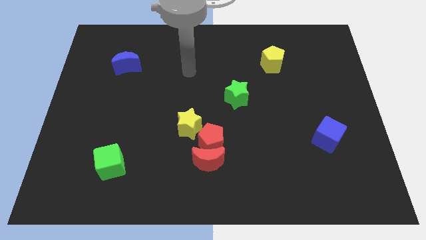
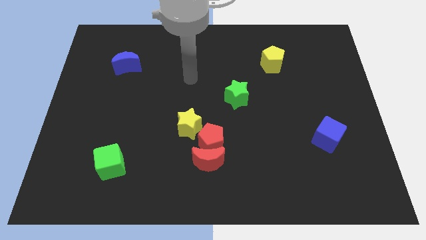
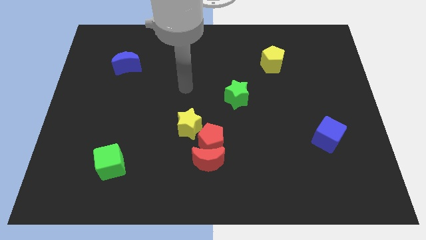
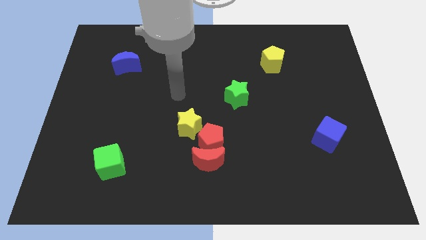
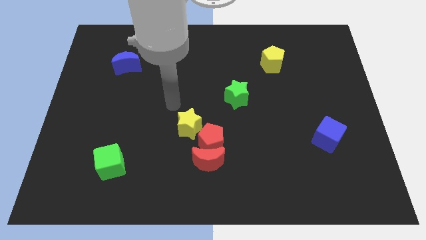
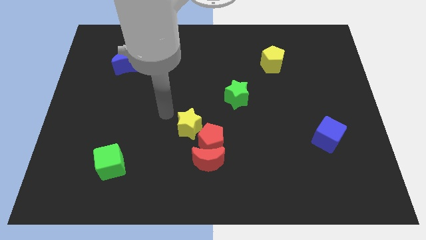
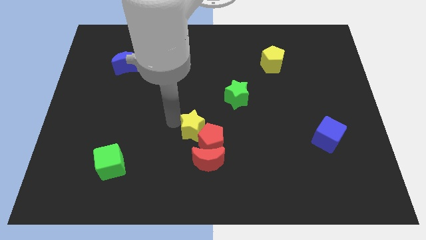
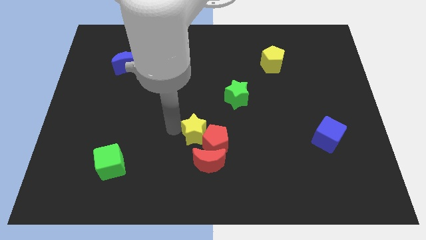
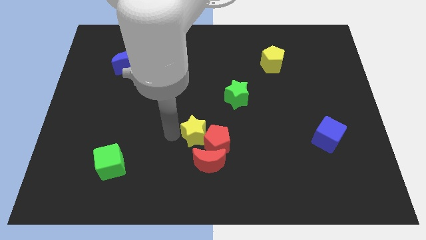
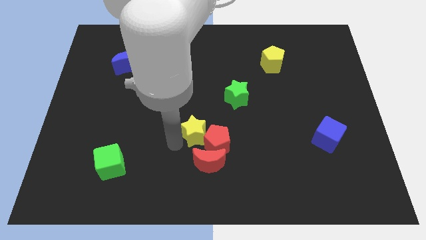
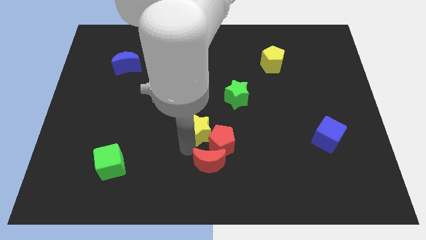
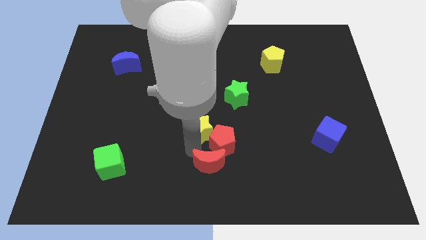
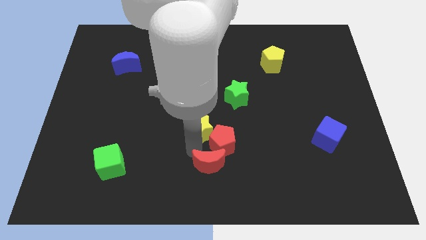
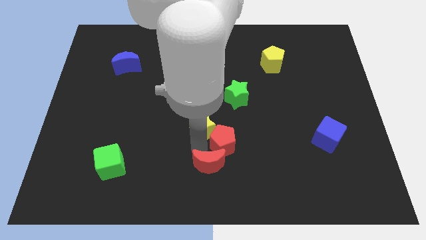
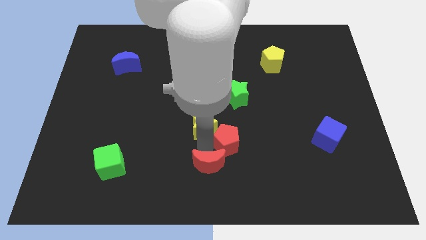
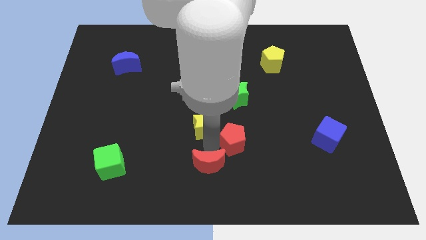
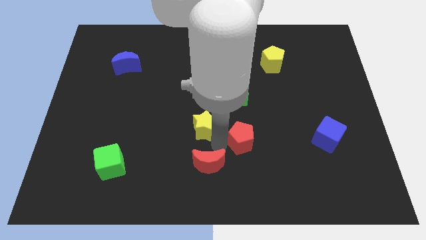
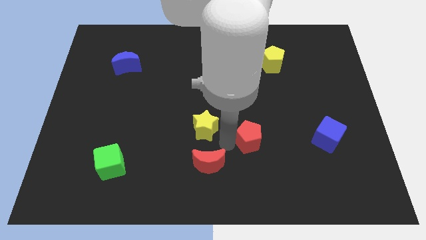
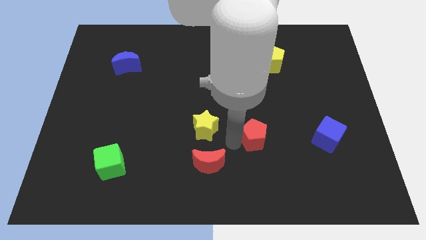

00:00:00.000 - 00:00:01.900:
move the red pentagon away from the red moon and yellow star

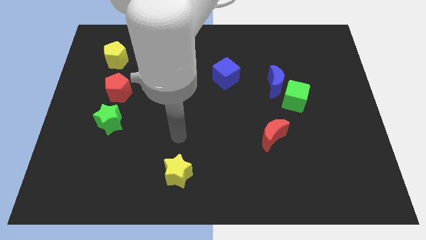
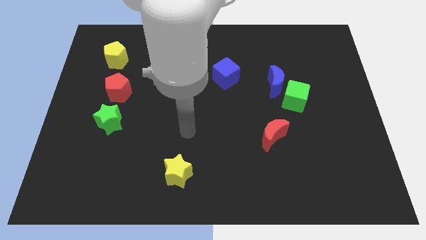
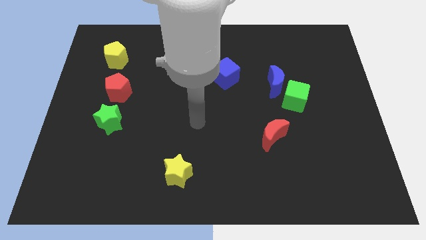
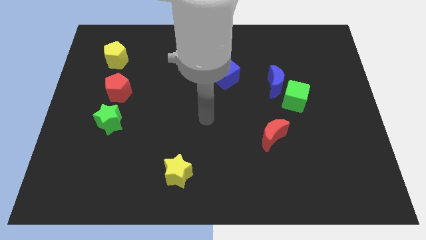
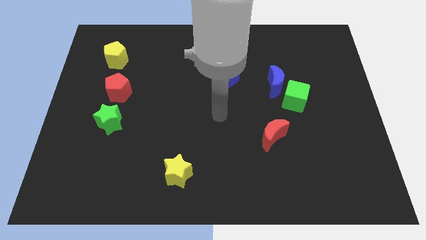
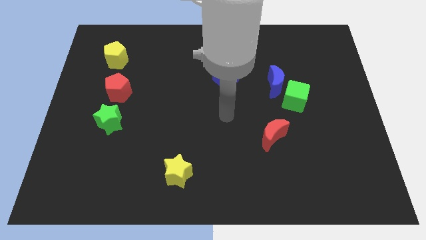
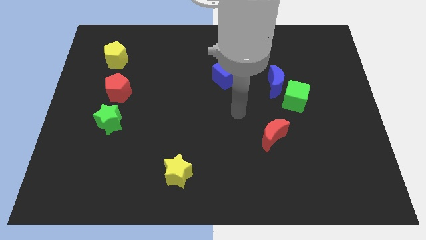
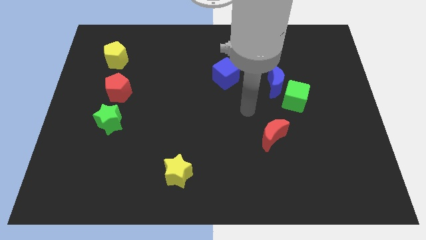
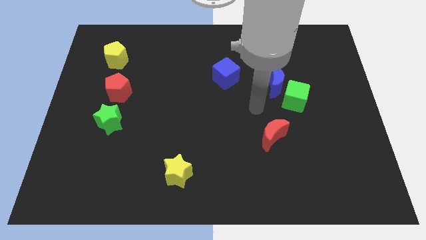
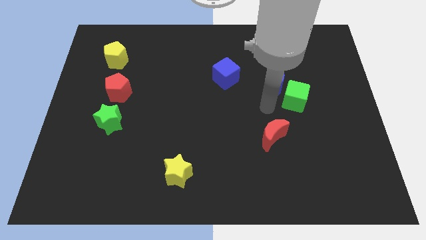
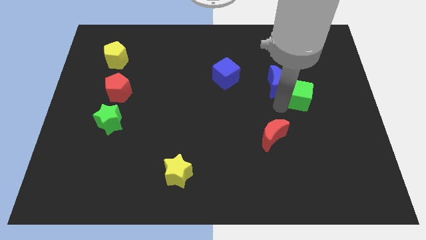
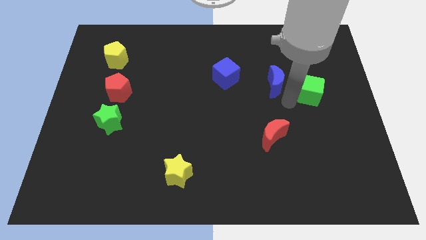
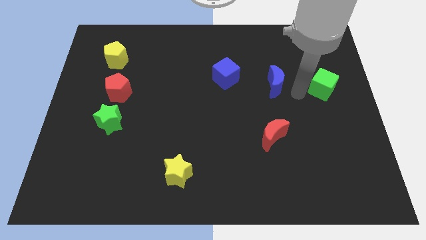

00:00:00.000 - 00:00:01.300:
pull the blue moon apart from the green cube

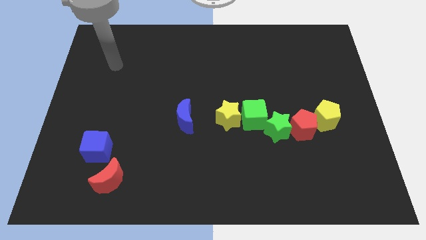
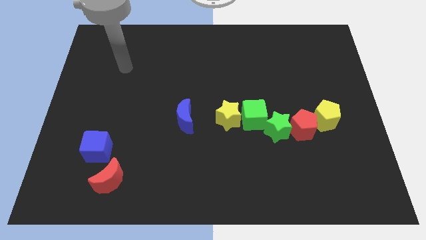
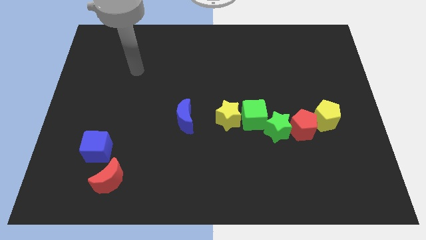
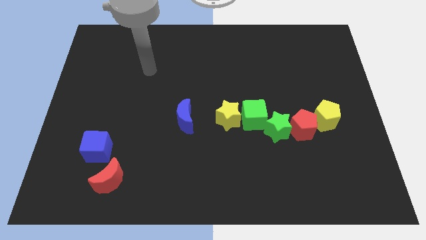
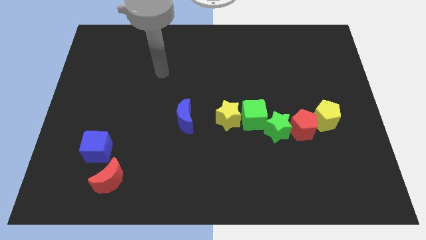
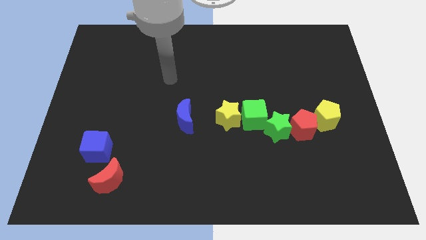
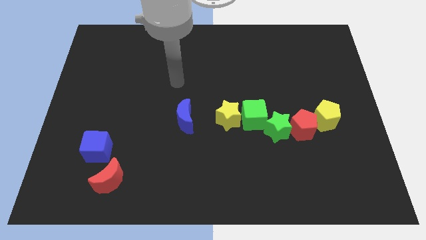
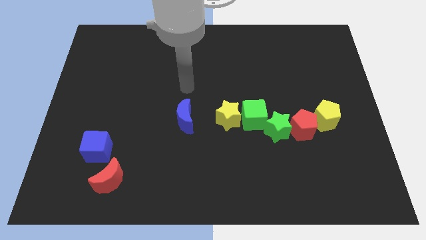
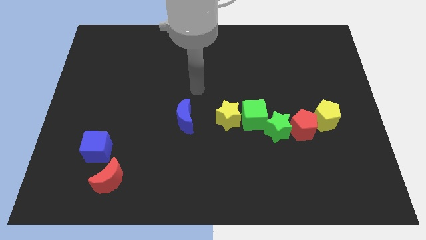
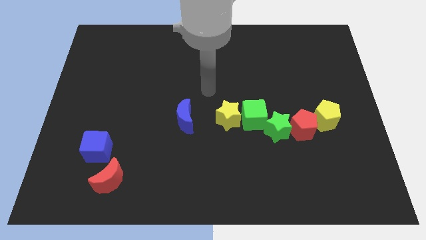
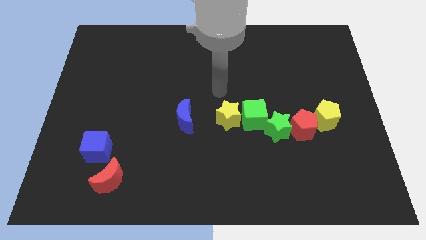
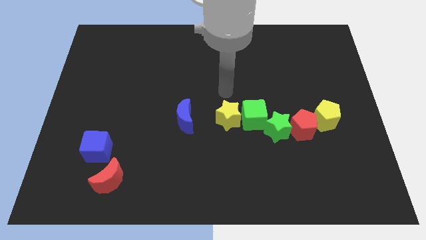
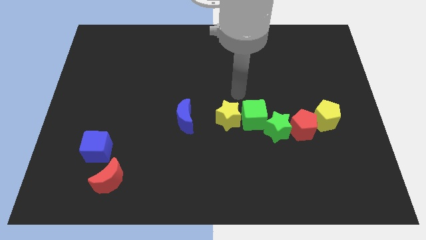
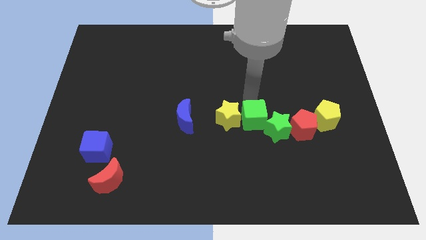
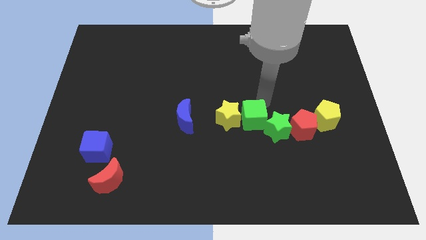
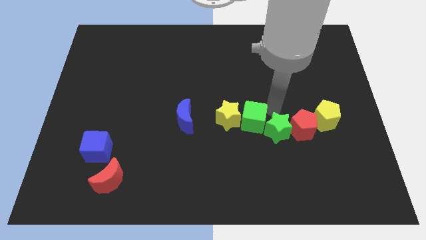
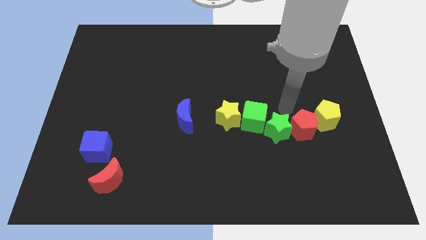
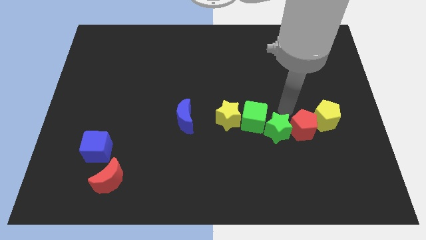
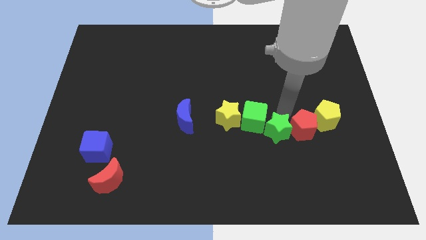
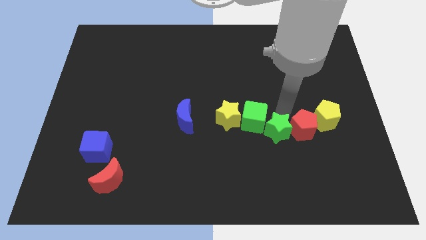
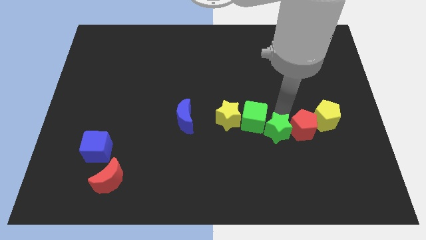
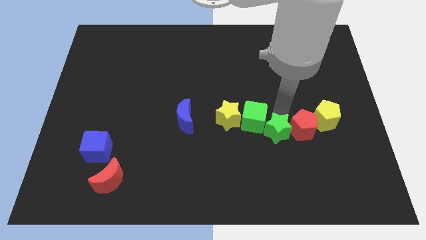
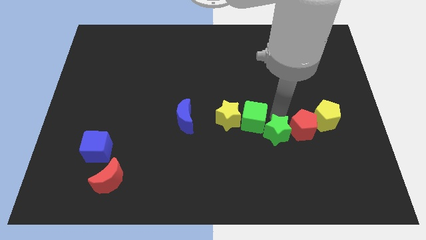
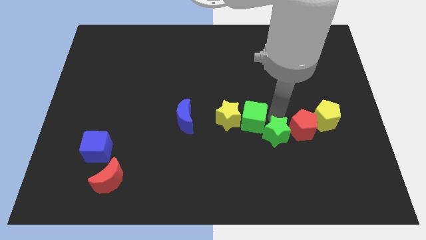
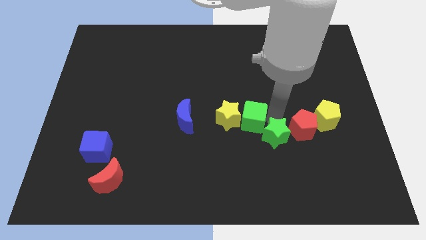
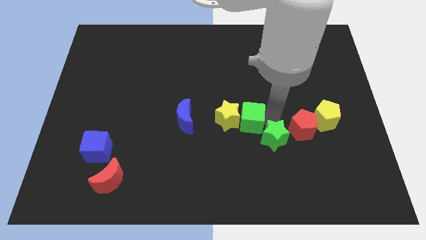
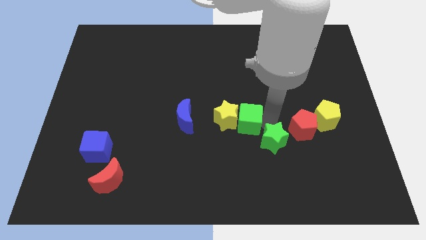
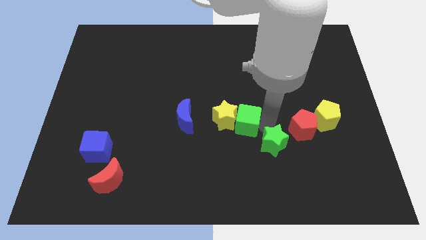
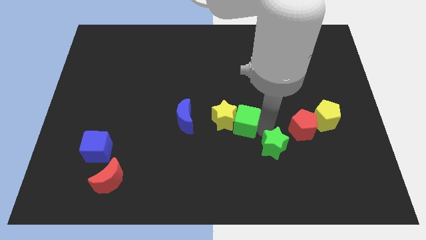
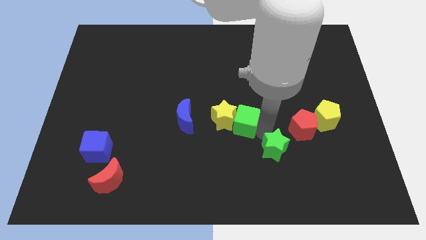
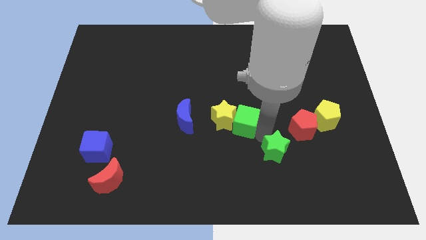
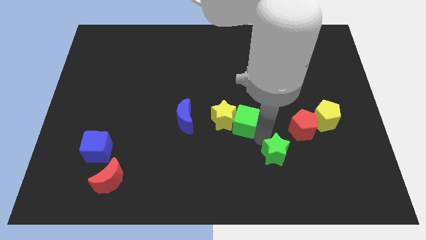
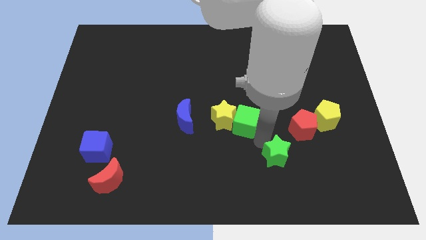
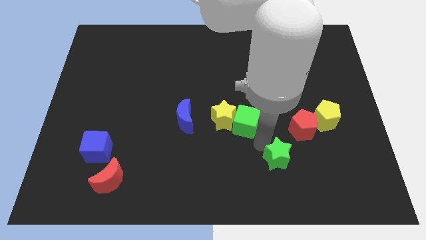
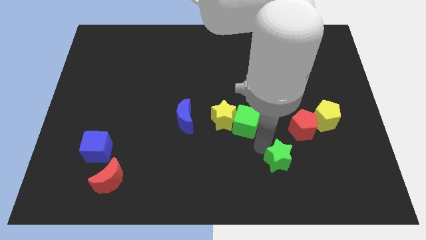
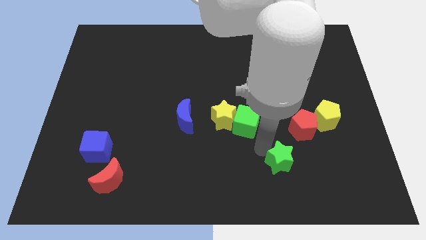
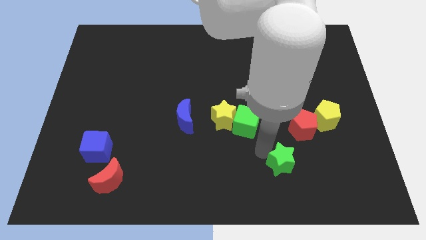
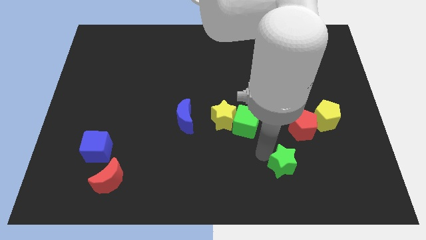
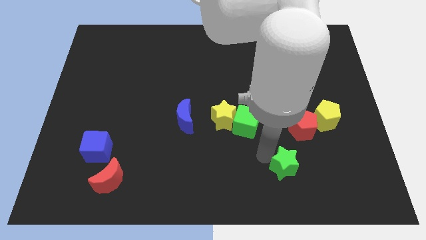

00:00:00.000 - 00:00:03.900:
move the green star away from the red pentagon and green cube

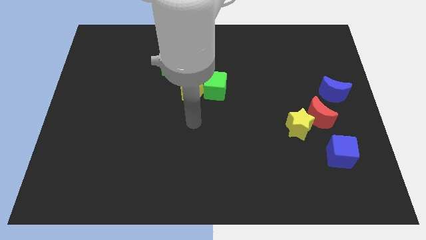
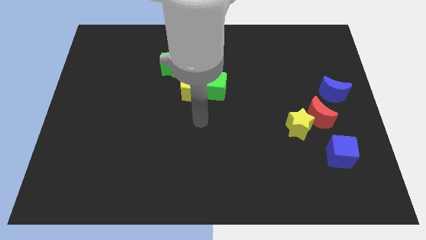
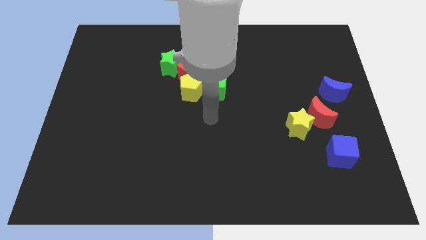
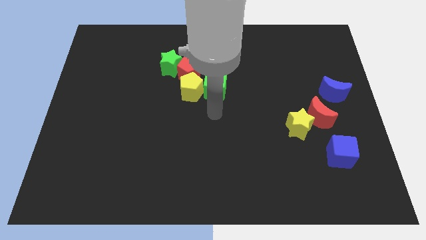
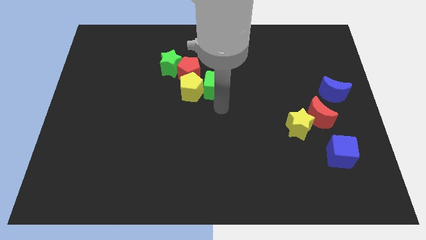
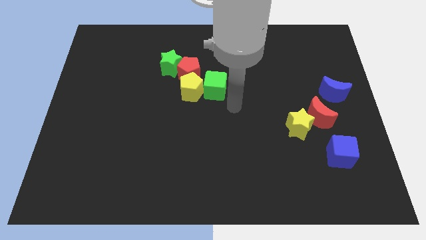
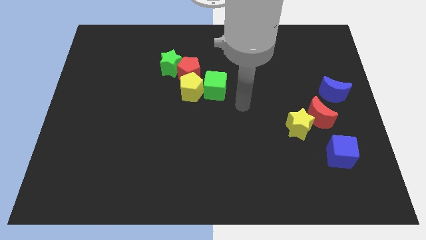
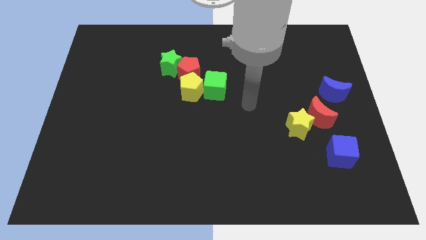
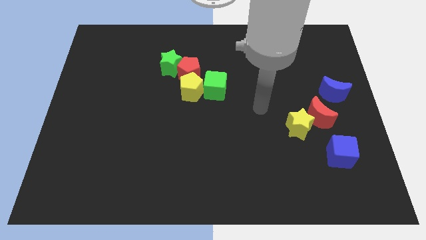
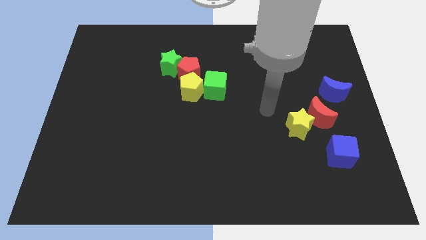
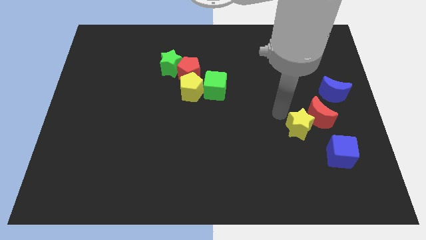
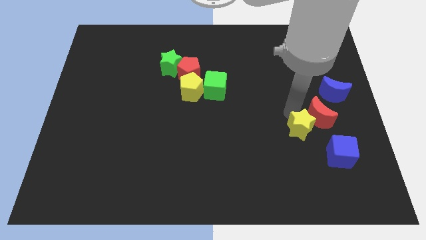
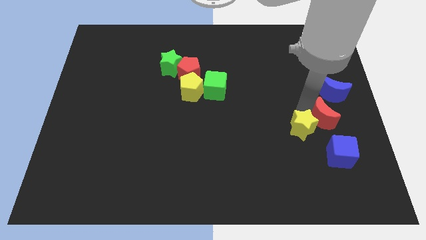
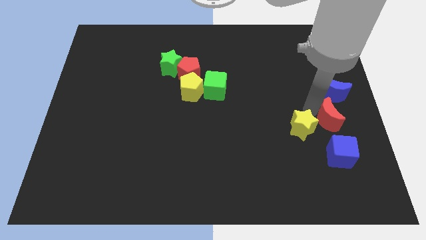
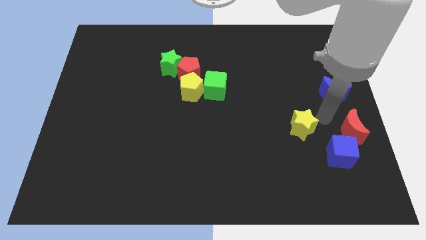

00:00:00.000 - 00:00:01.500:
separate the yellow star from the red moon

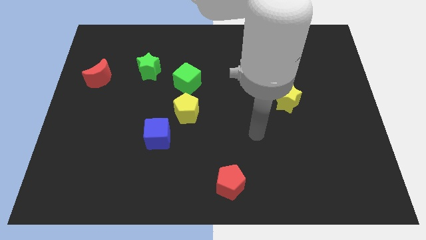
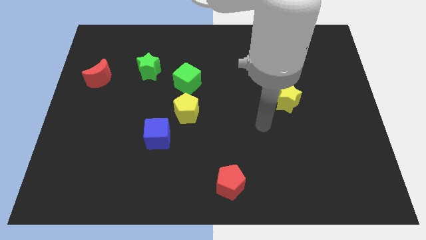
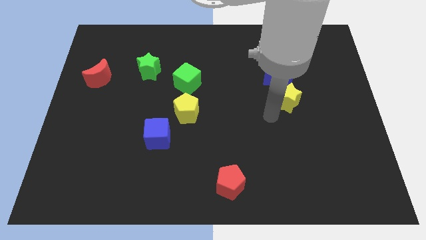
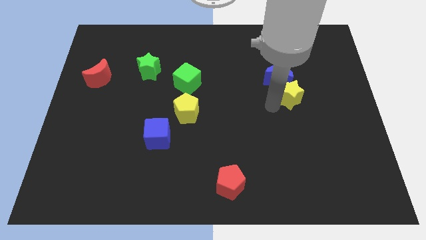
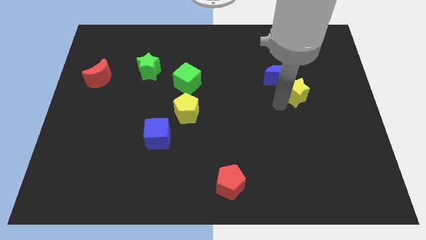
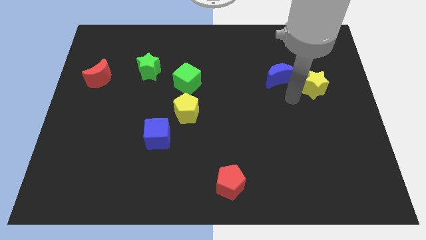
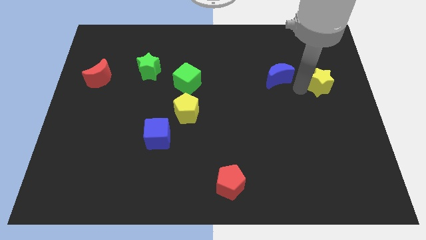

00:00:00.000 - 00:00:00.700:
pull the blue moon apart from the yellow star

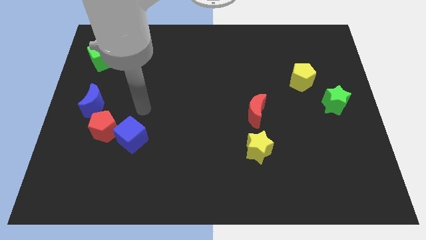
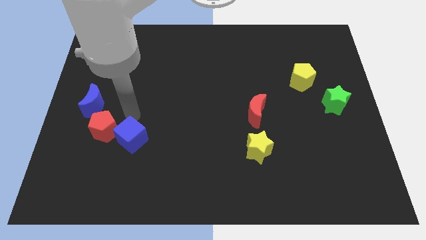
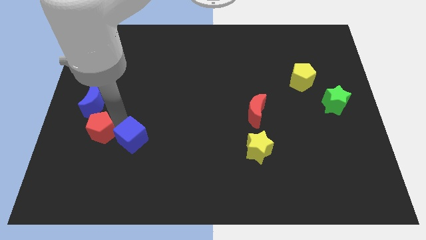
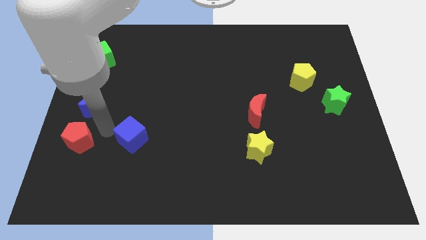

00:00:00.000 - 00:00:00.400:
separate the blue cube from the red pentagon
